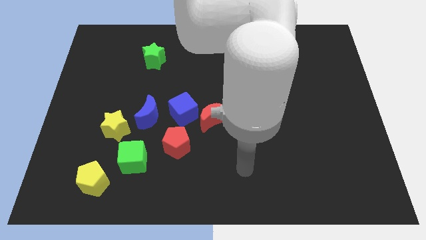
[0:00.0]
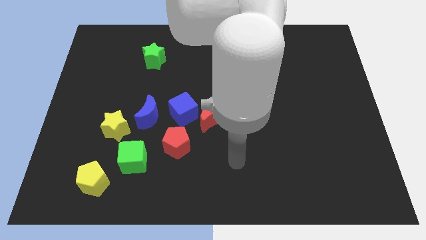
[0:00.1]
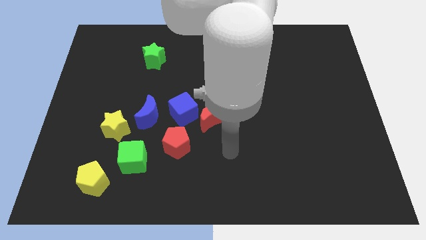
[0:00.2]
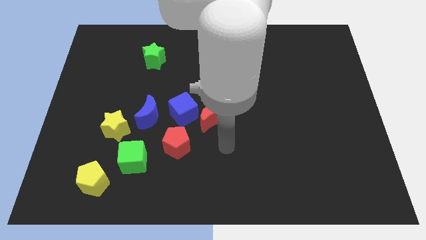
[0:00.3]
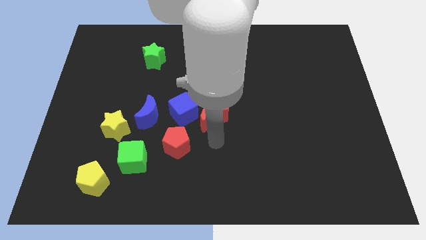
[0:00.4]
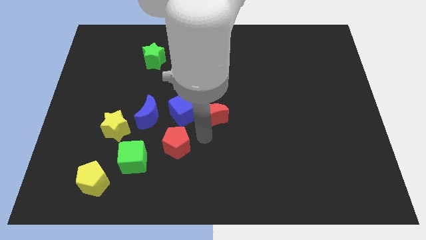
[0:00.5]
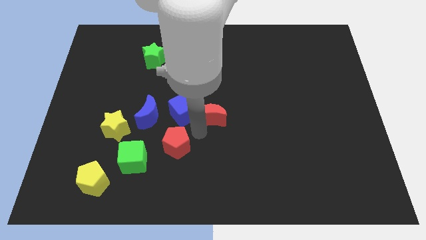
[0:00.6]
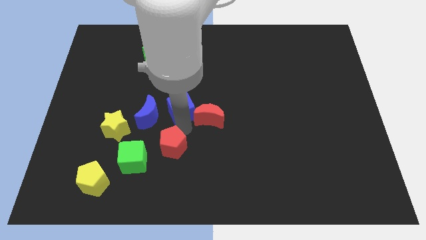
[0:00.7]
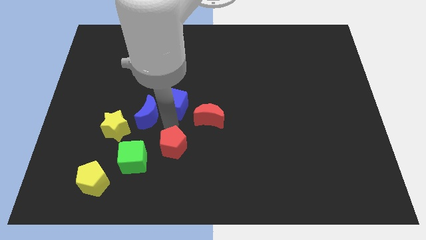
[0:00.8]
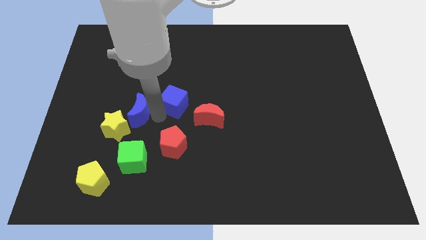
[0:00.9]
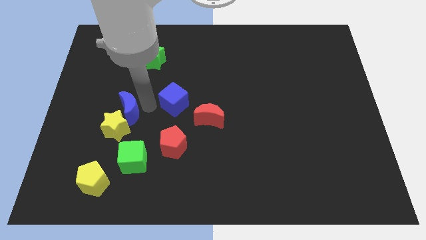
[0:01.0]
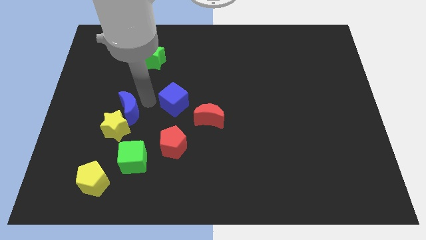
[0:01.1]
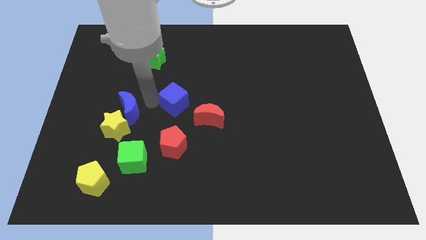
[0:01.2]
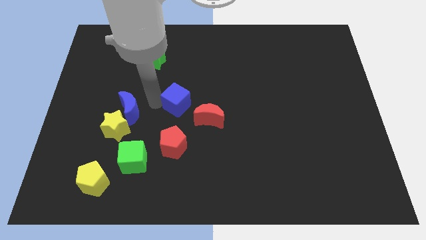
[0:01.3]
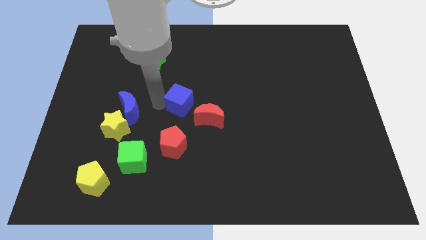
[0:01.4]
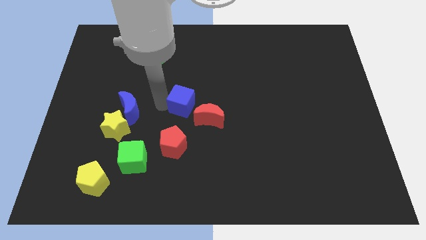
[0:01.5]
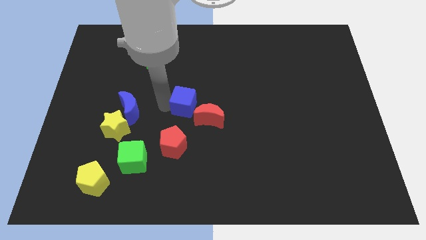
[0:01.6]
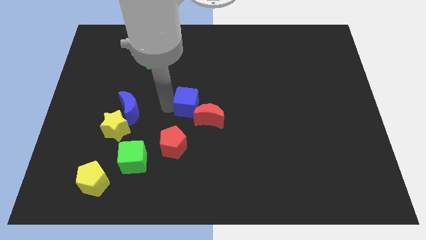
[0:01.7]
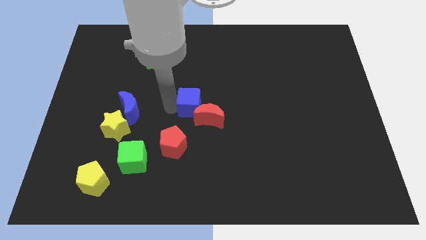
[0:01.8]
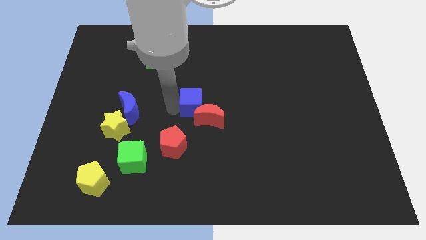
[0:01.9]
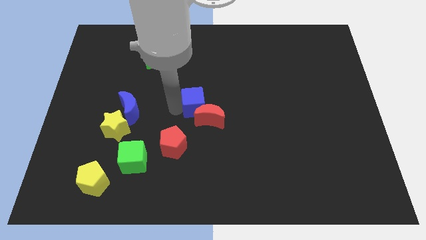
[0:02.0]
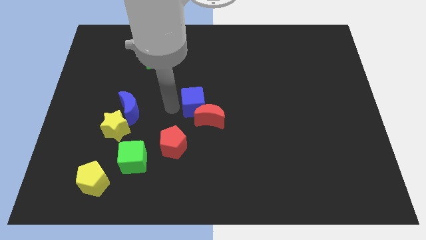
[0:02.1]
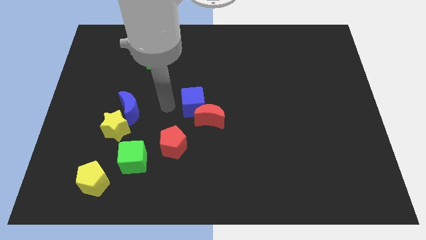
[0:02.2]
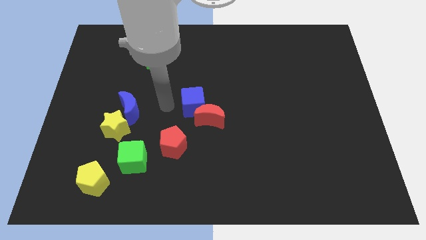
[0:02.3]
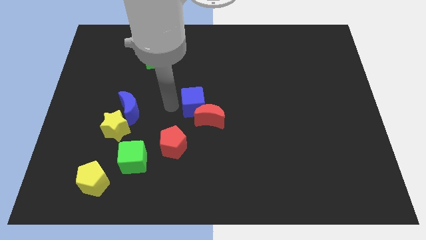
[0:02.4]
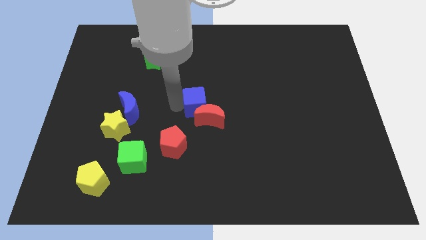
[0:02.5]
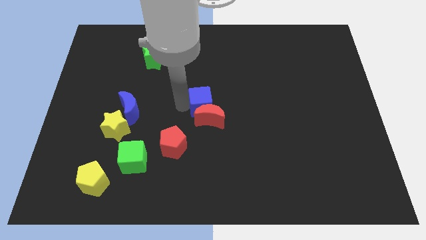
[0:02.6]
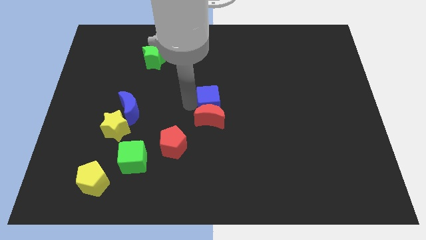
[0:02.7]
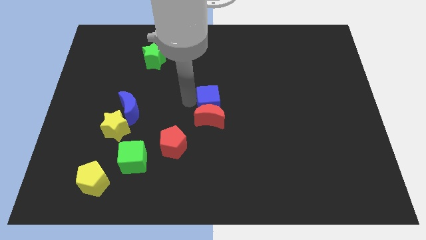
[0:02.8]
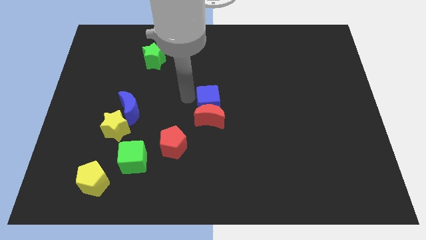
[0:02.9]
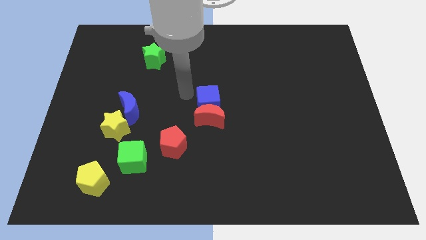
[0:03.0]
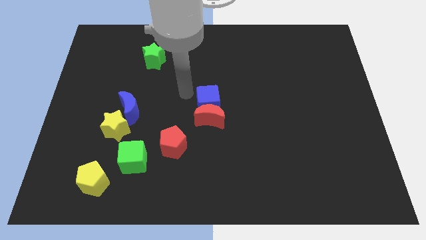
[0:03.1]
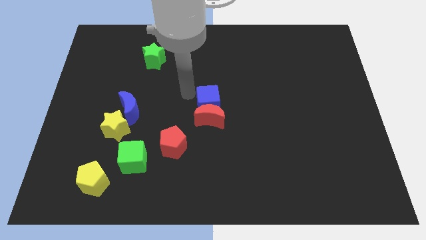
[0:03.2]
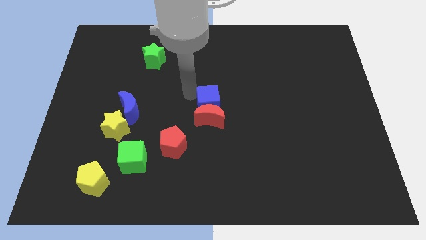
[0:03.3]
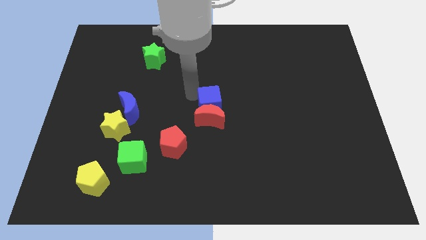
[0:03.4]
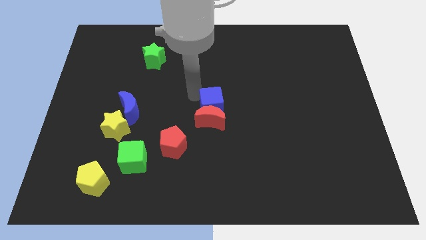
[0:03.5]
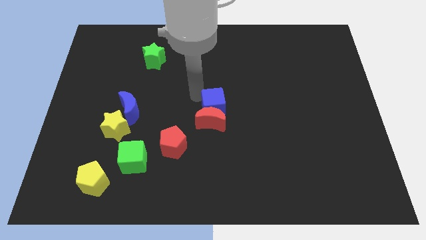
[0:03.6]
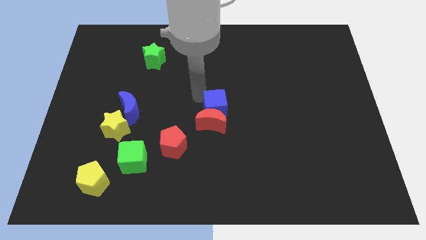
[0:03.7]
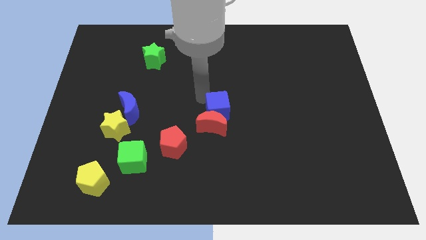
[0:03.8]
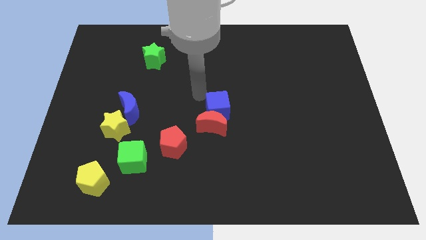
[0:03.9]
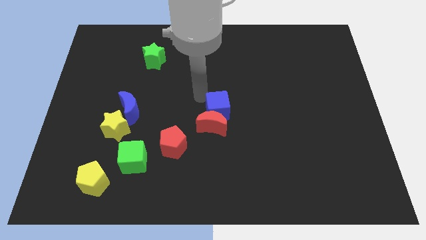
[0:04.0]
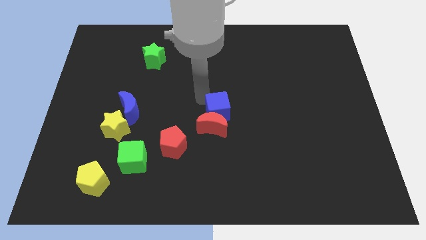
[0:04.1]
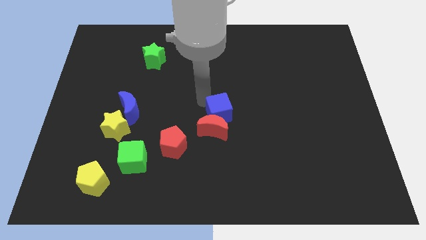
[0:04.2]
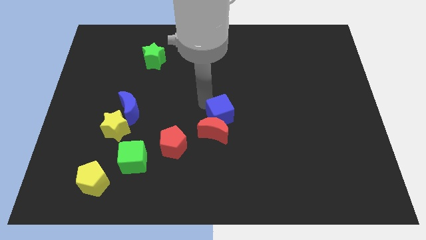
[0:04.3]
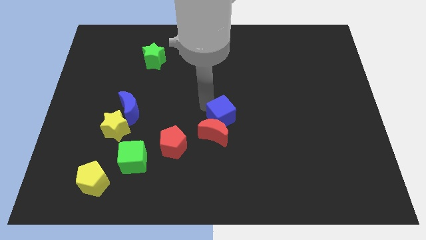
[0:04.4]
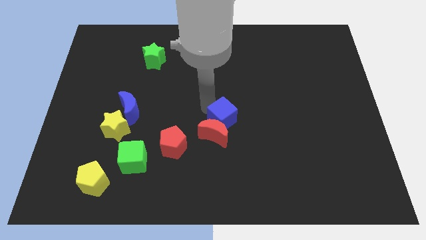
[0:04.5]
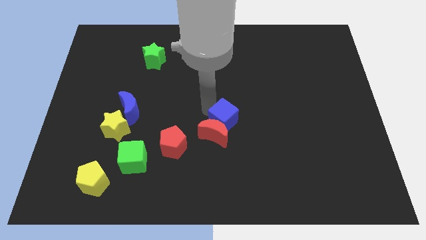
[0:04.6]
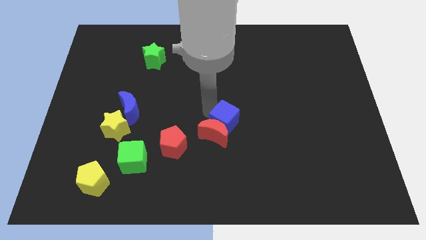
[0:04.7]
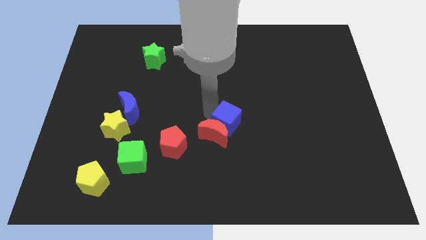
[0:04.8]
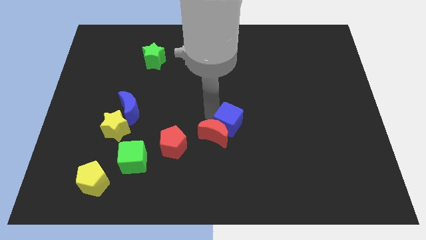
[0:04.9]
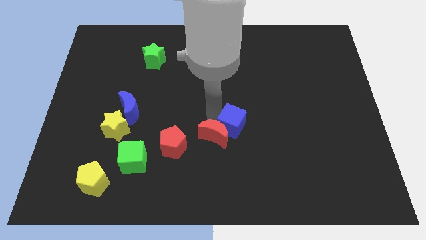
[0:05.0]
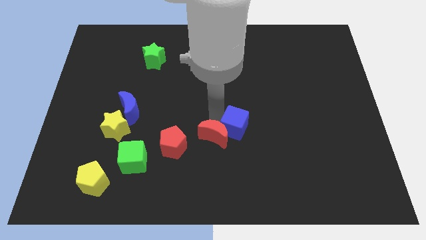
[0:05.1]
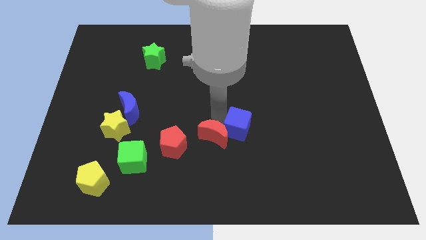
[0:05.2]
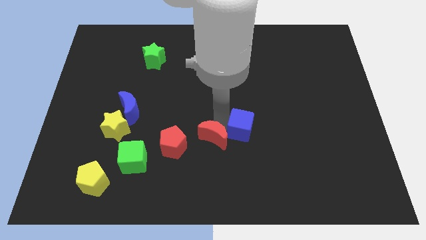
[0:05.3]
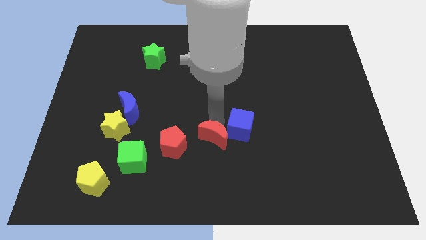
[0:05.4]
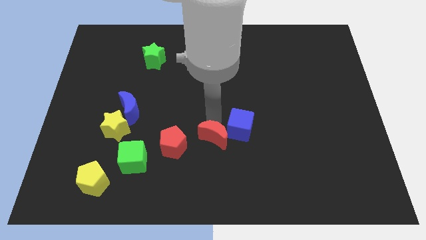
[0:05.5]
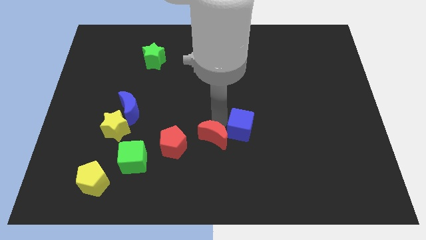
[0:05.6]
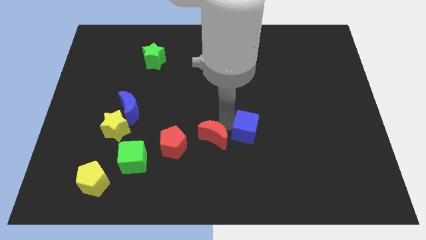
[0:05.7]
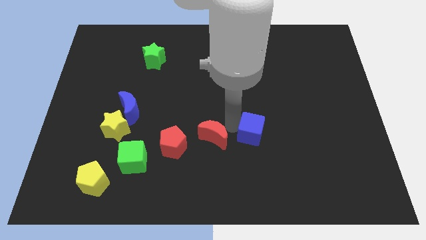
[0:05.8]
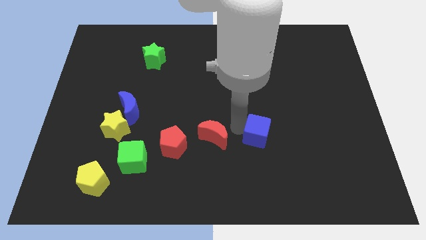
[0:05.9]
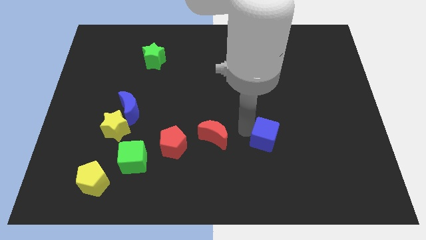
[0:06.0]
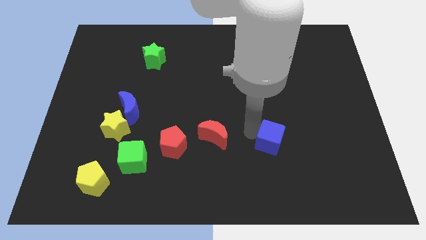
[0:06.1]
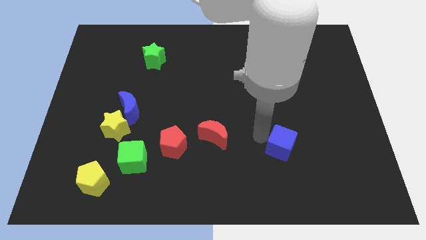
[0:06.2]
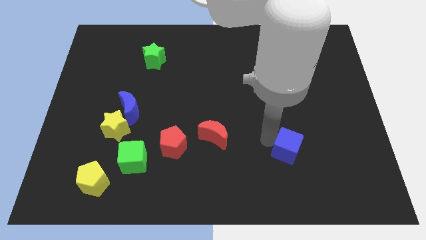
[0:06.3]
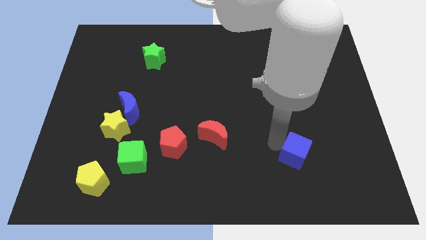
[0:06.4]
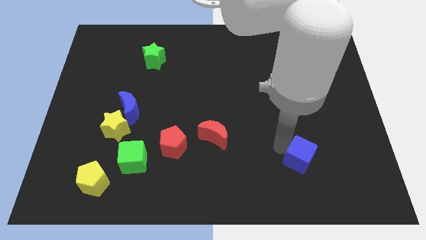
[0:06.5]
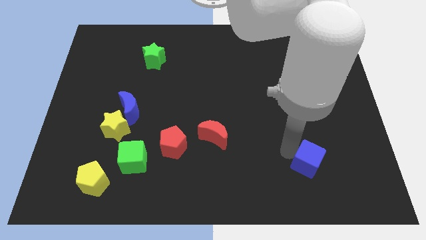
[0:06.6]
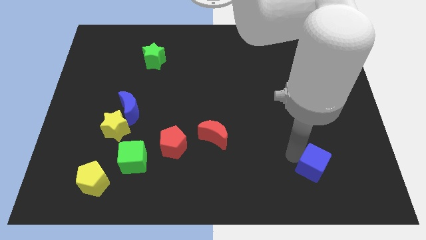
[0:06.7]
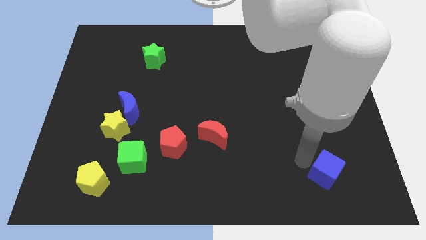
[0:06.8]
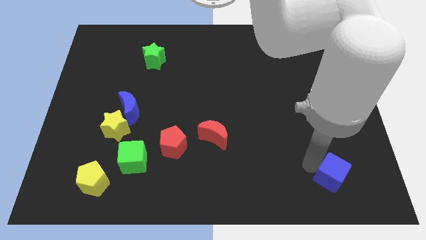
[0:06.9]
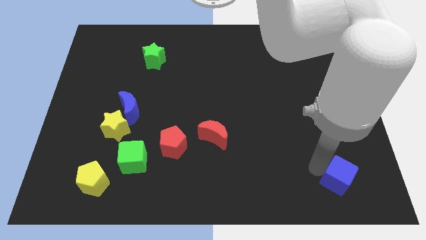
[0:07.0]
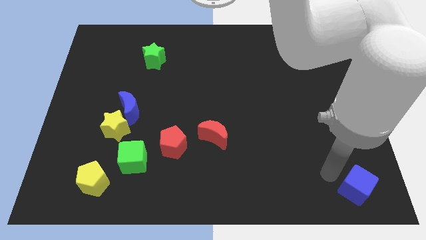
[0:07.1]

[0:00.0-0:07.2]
move the blue cube to the bottom right of the board
